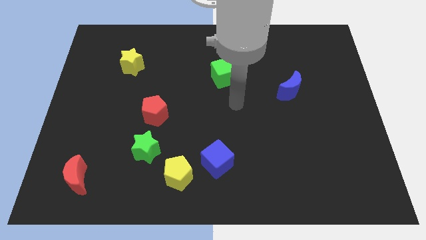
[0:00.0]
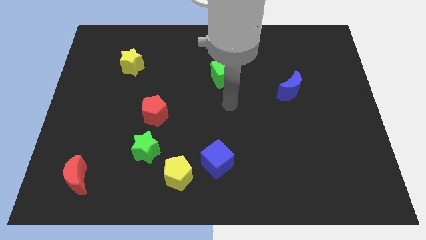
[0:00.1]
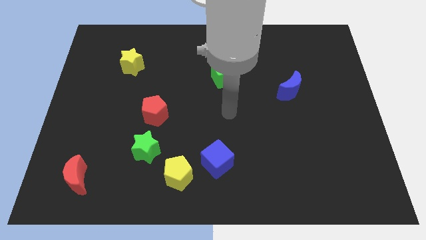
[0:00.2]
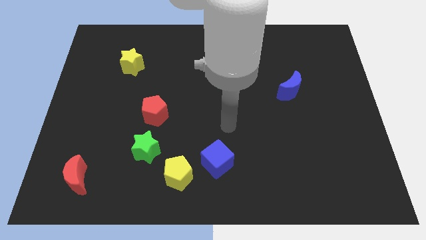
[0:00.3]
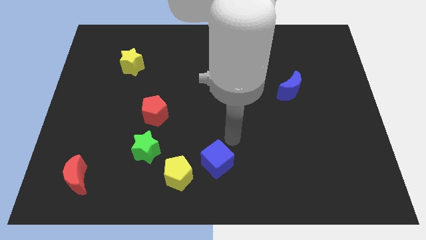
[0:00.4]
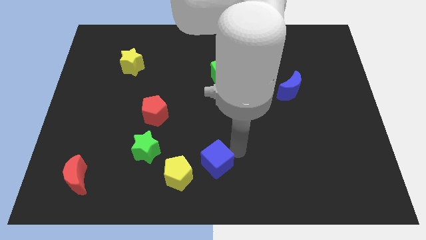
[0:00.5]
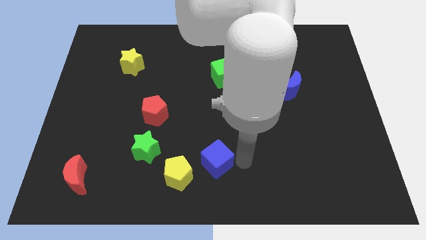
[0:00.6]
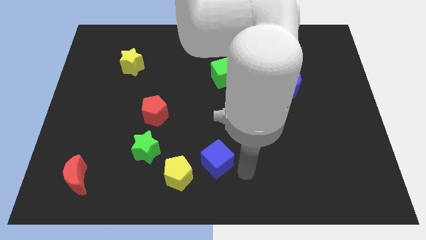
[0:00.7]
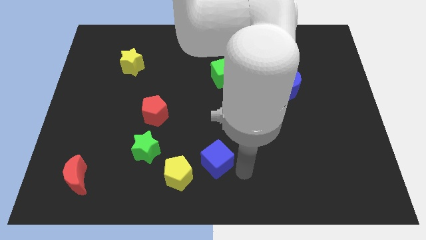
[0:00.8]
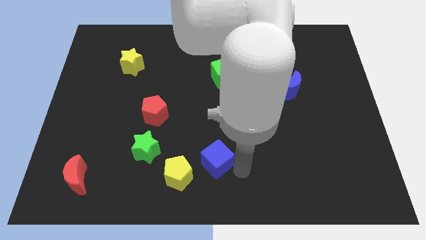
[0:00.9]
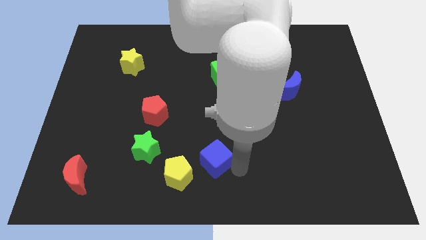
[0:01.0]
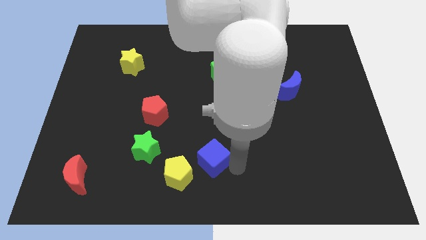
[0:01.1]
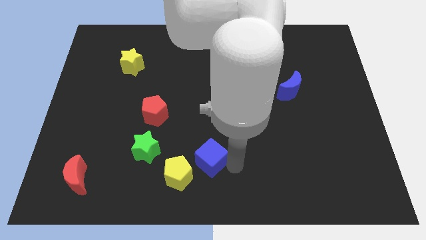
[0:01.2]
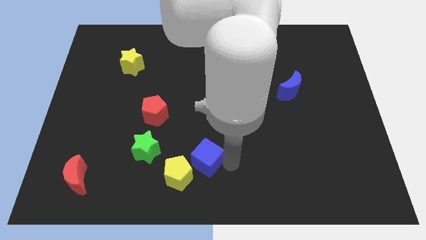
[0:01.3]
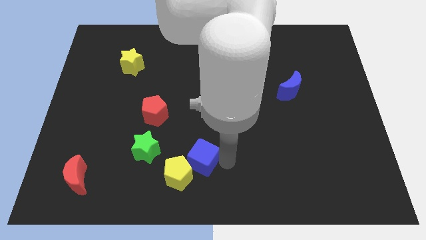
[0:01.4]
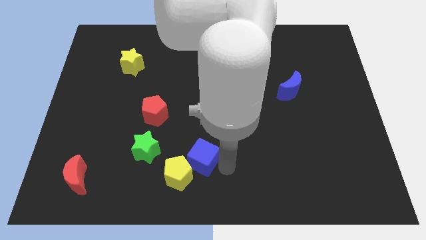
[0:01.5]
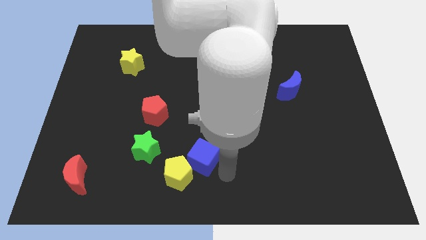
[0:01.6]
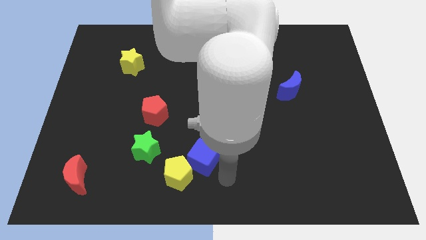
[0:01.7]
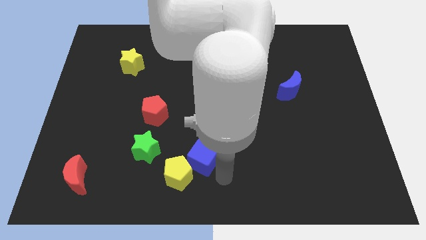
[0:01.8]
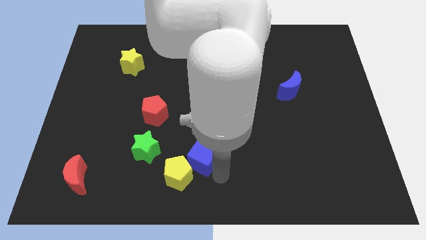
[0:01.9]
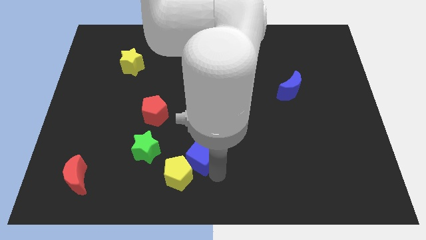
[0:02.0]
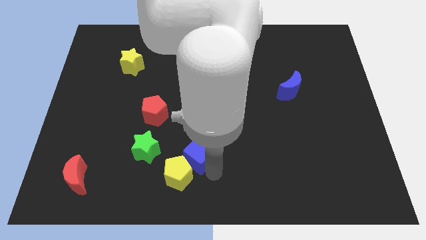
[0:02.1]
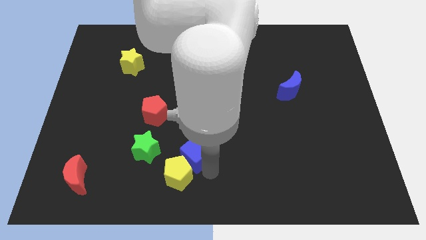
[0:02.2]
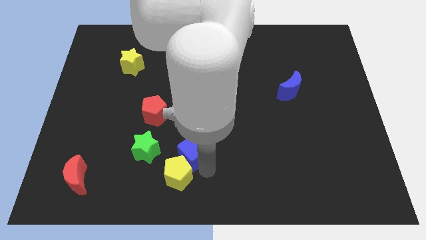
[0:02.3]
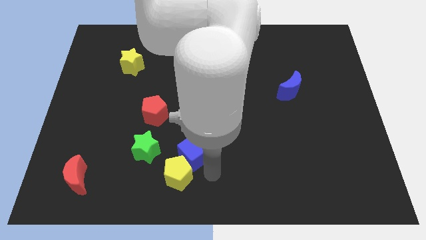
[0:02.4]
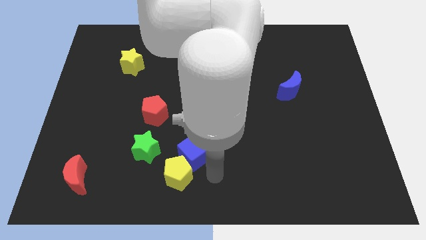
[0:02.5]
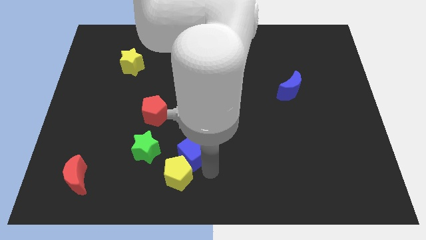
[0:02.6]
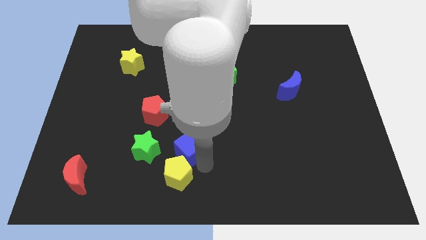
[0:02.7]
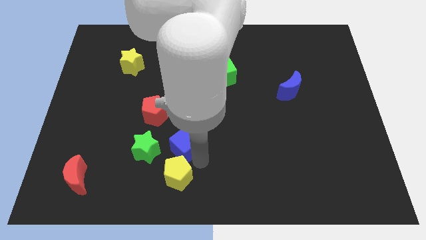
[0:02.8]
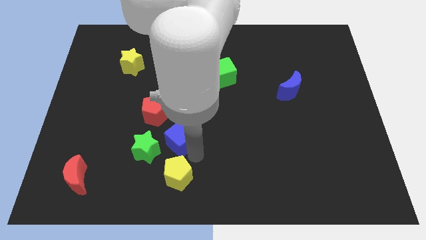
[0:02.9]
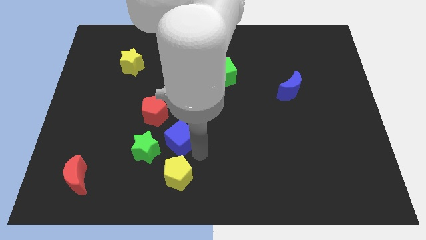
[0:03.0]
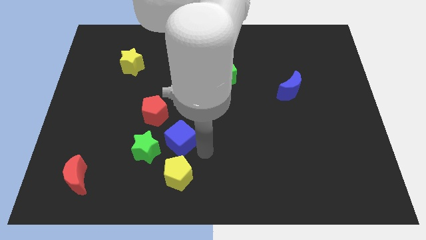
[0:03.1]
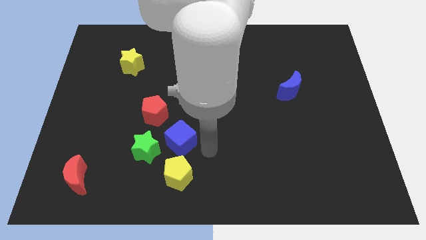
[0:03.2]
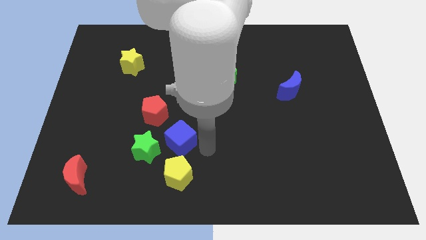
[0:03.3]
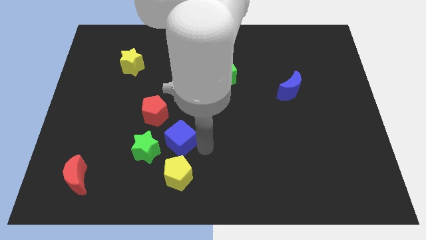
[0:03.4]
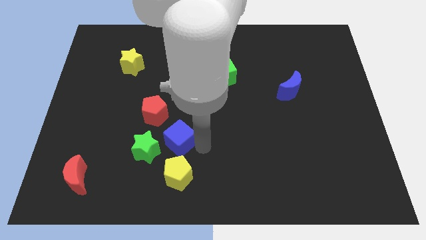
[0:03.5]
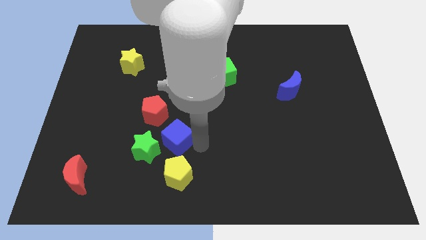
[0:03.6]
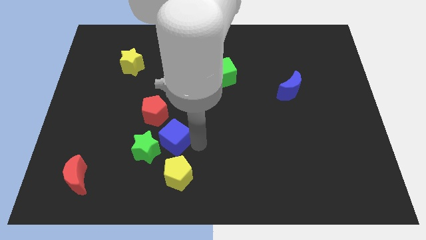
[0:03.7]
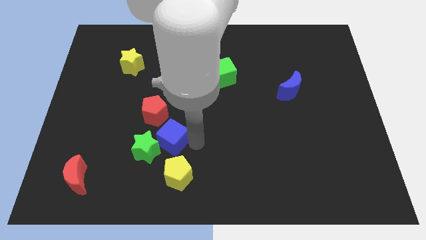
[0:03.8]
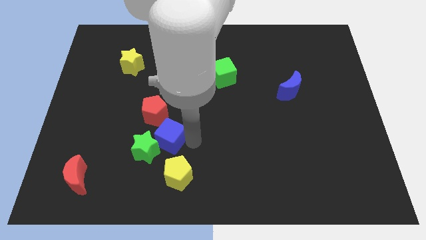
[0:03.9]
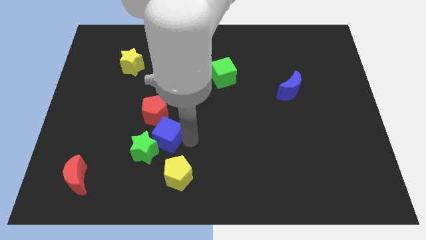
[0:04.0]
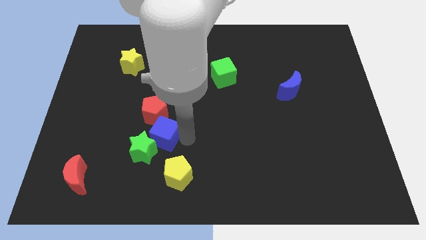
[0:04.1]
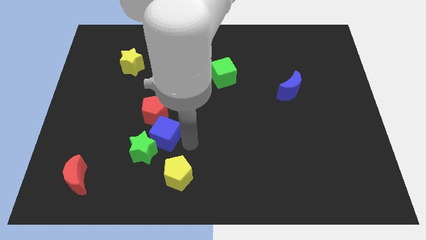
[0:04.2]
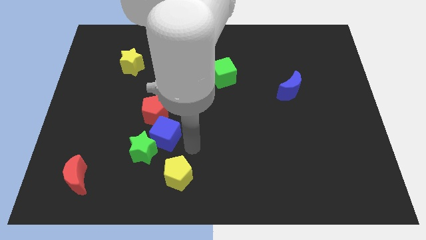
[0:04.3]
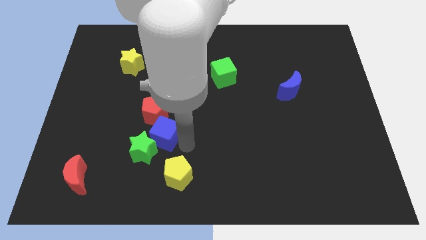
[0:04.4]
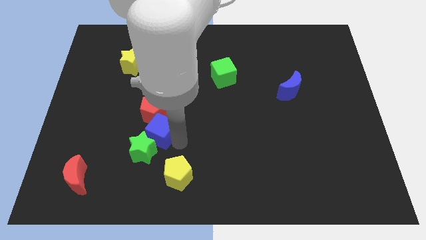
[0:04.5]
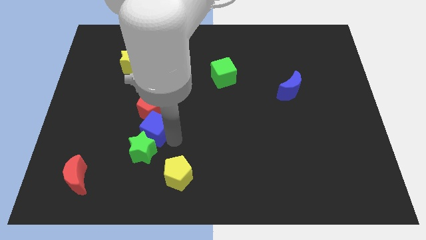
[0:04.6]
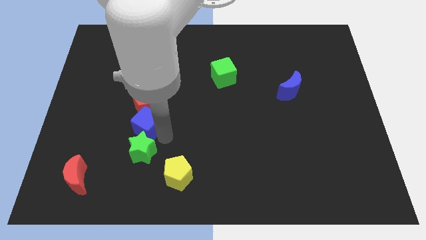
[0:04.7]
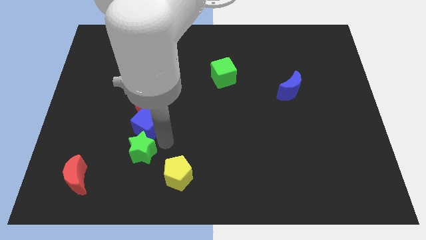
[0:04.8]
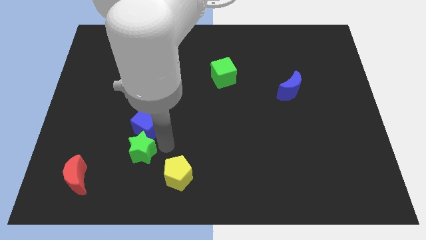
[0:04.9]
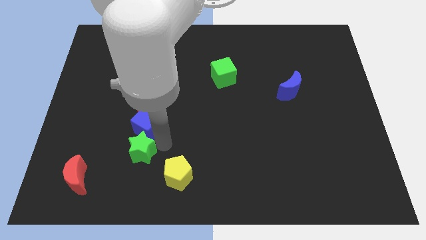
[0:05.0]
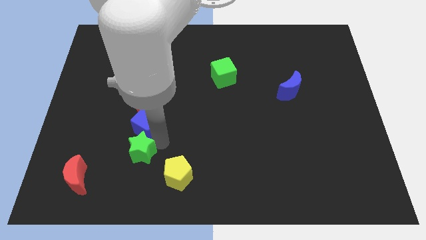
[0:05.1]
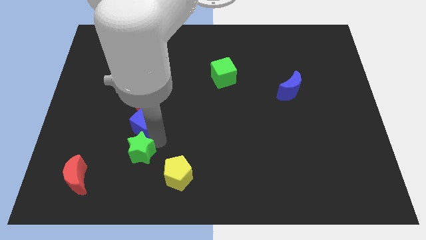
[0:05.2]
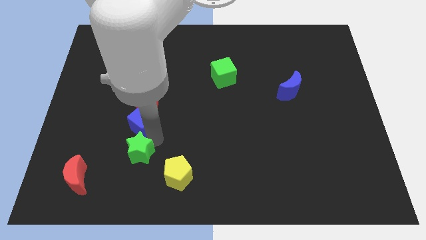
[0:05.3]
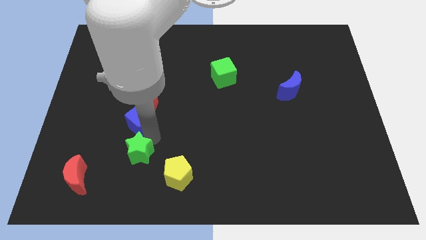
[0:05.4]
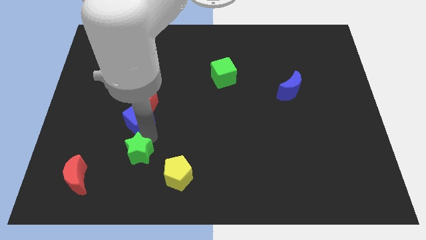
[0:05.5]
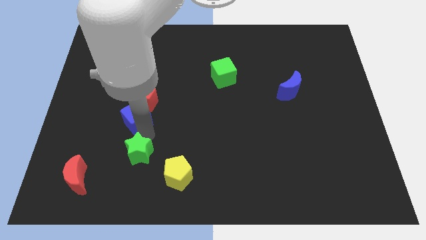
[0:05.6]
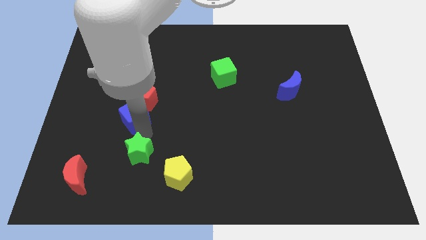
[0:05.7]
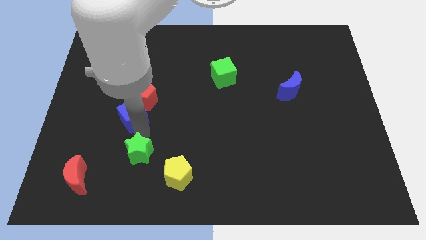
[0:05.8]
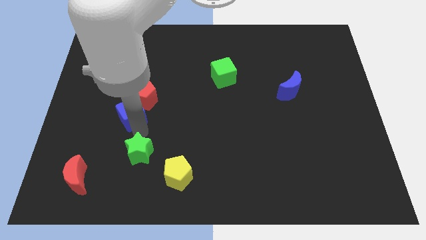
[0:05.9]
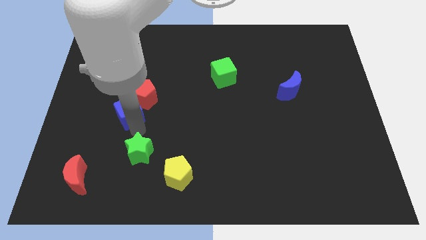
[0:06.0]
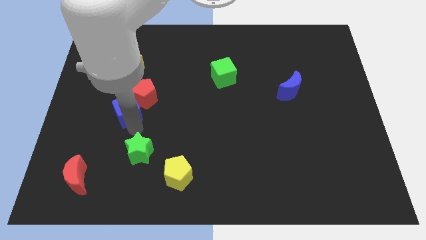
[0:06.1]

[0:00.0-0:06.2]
put the blue cube to the bottom side of the yellow star

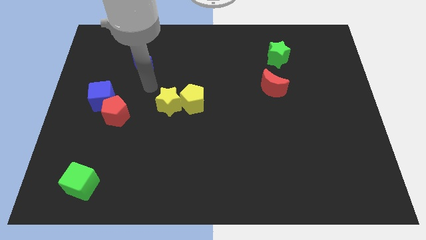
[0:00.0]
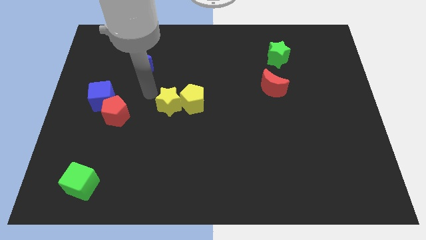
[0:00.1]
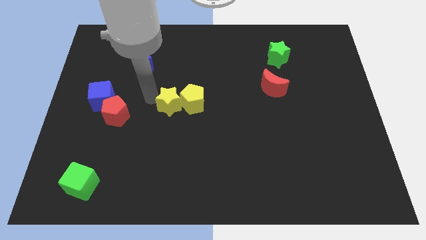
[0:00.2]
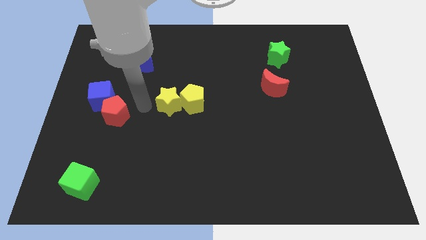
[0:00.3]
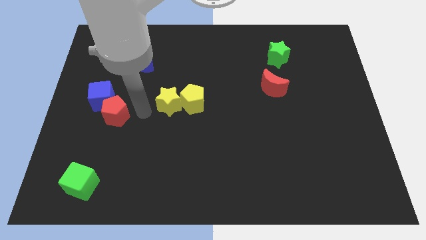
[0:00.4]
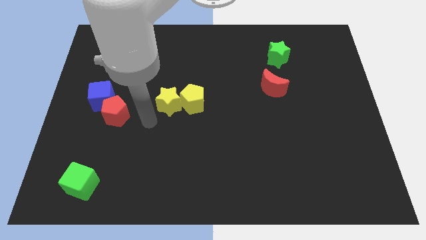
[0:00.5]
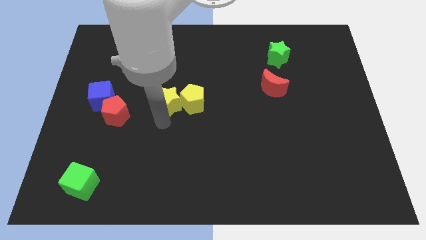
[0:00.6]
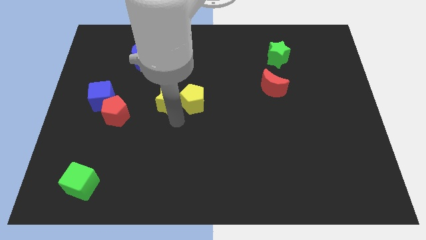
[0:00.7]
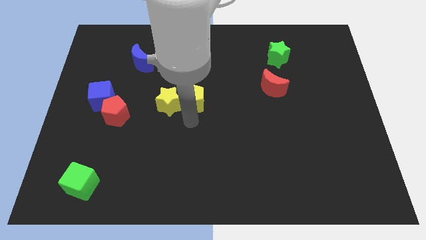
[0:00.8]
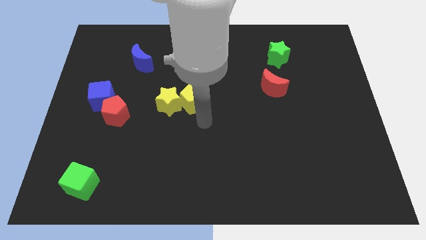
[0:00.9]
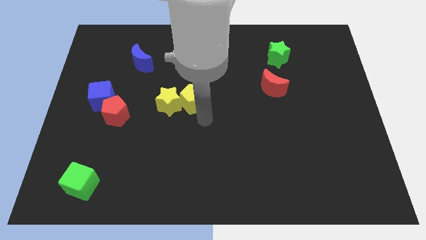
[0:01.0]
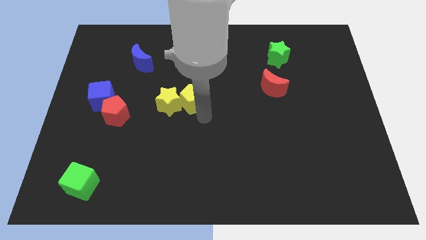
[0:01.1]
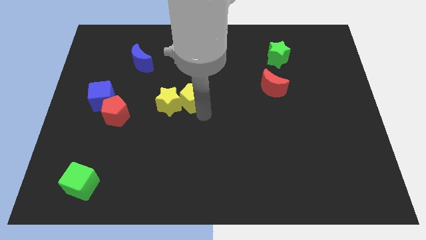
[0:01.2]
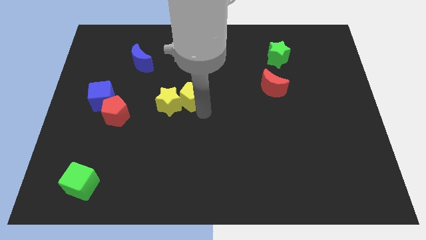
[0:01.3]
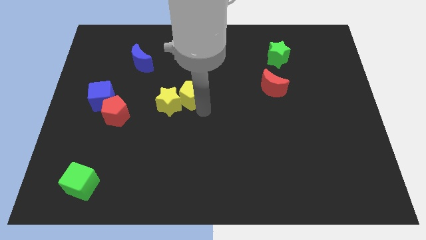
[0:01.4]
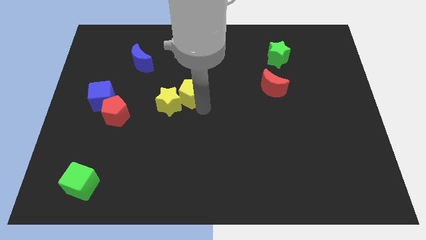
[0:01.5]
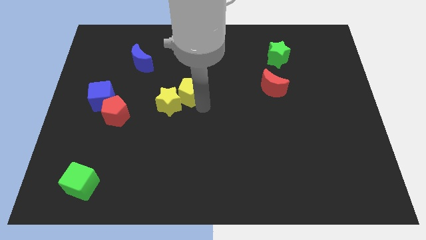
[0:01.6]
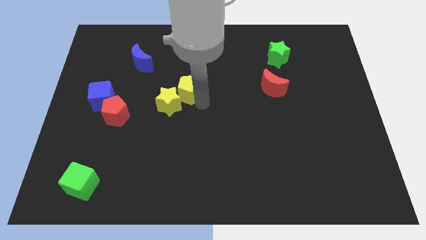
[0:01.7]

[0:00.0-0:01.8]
put the yellow pentagon to the top side of the yellow star
